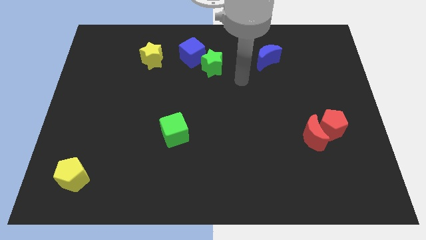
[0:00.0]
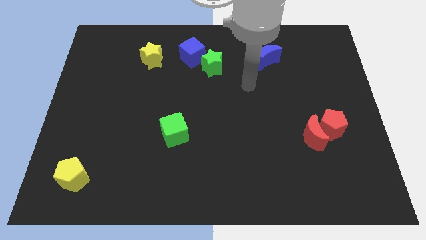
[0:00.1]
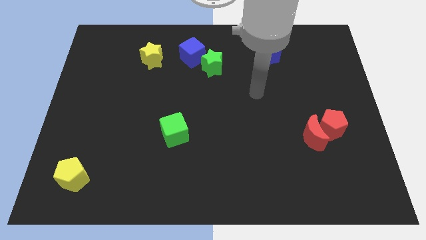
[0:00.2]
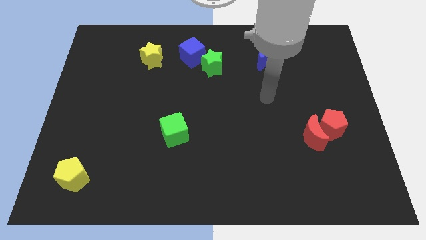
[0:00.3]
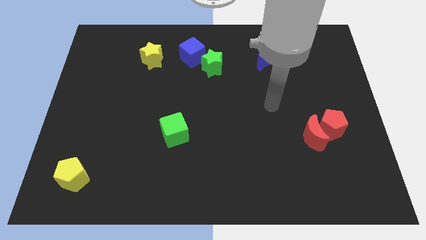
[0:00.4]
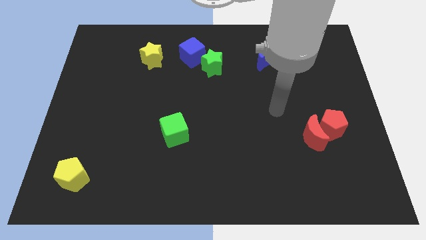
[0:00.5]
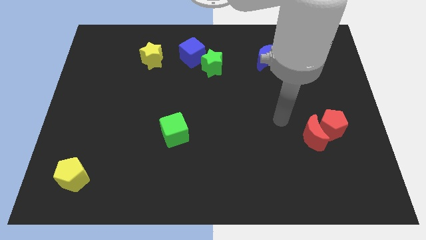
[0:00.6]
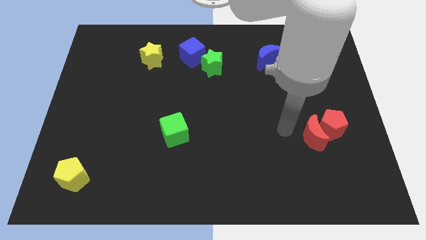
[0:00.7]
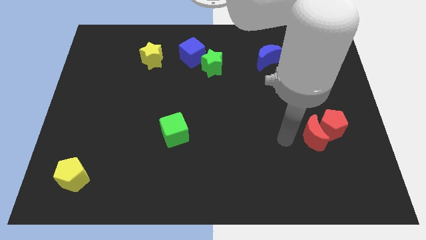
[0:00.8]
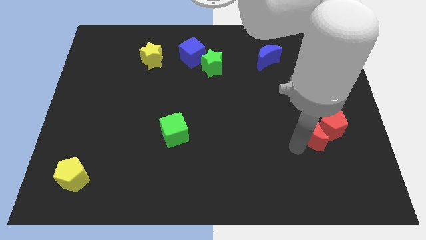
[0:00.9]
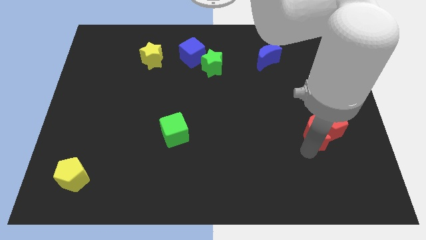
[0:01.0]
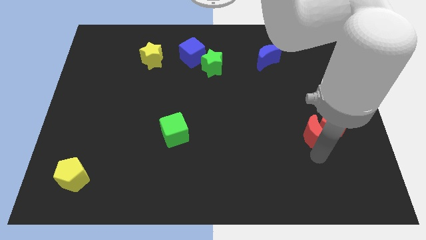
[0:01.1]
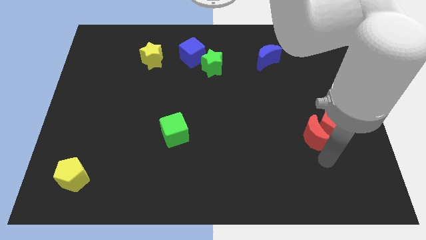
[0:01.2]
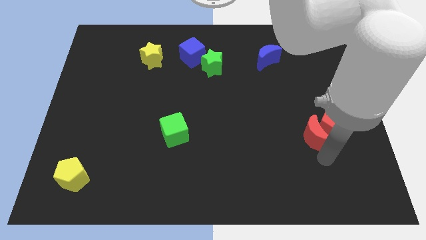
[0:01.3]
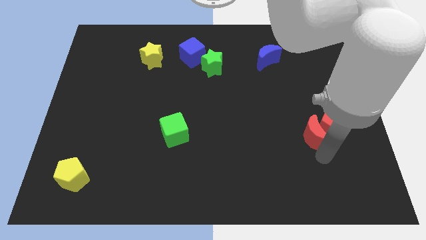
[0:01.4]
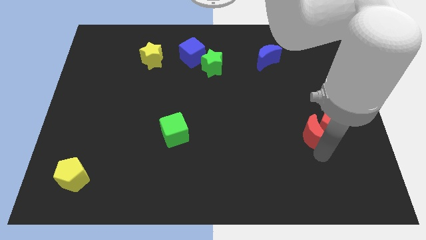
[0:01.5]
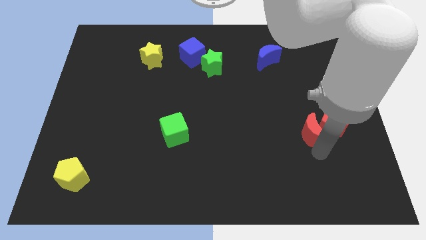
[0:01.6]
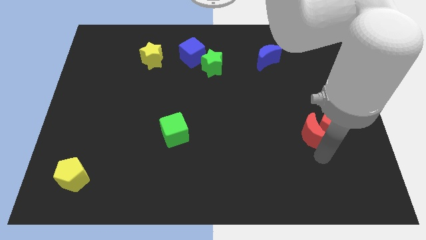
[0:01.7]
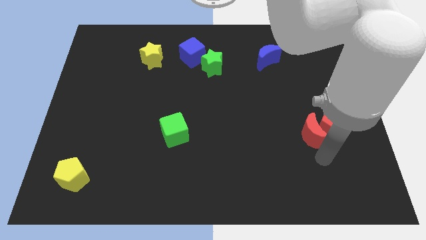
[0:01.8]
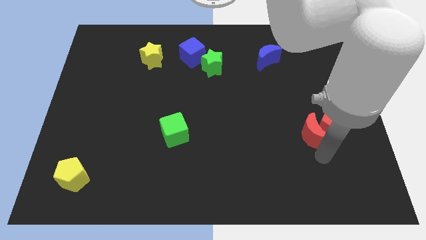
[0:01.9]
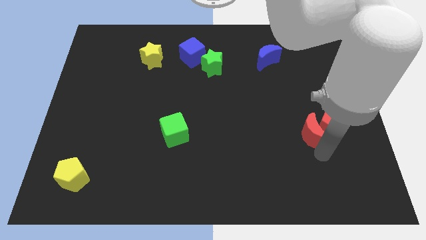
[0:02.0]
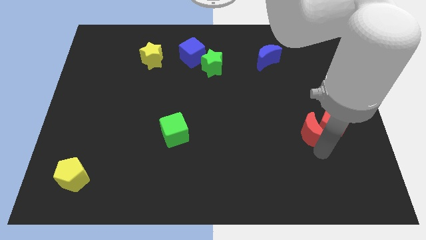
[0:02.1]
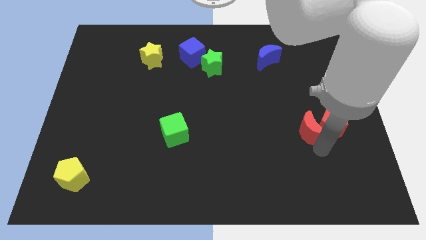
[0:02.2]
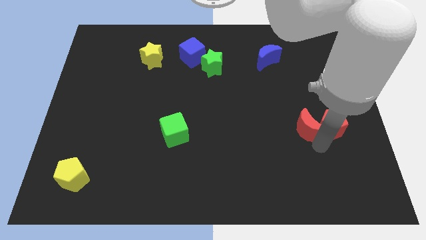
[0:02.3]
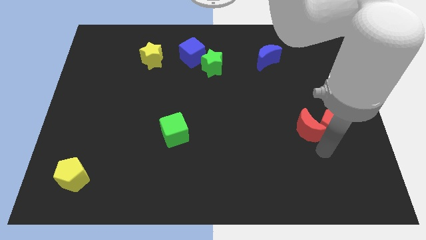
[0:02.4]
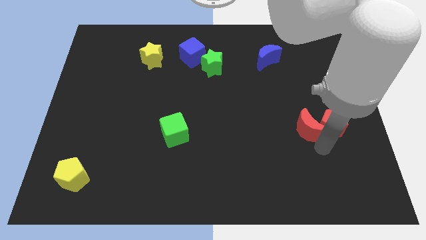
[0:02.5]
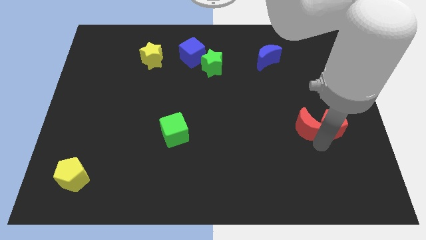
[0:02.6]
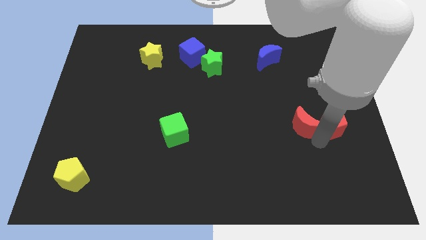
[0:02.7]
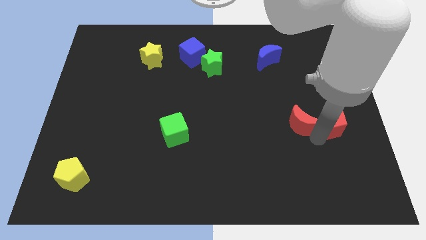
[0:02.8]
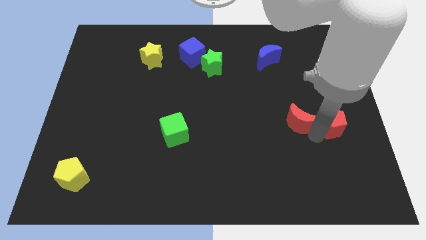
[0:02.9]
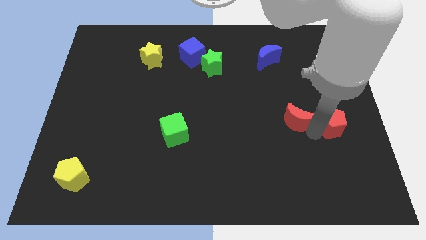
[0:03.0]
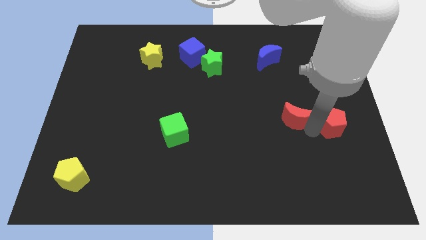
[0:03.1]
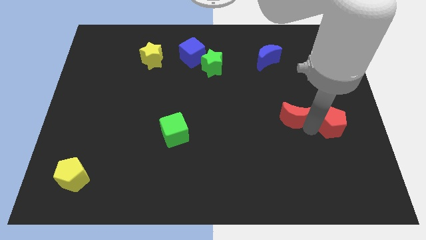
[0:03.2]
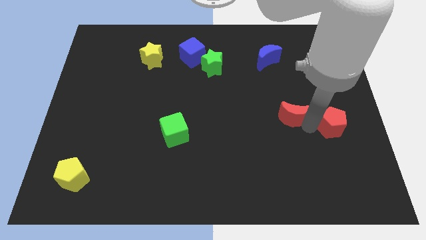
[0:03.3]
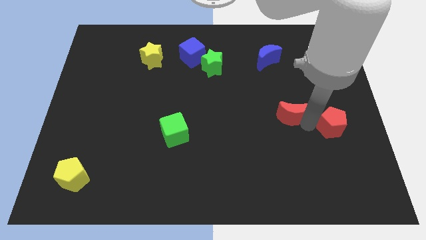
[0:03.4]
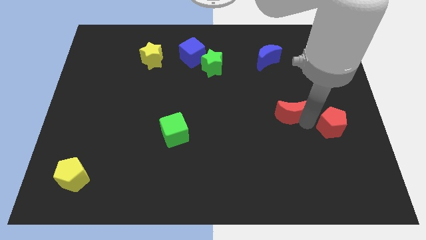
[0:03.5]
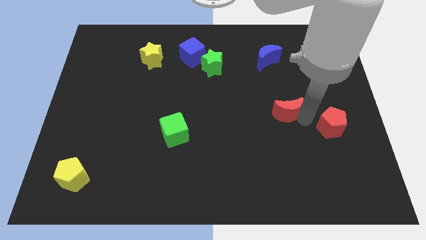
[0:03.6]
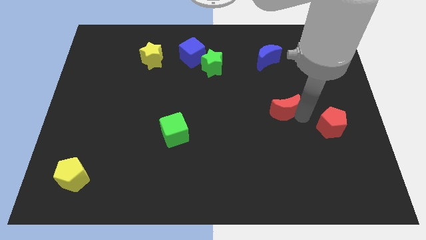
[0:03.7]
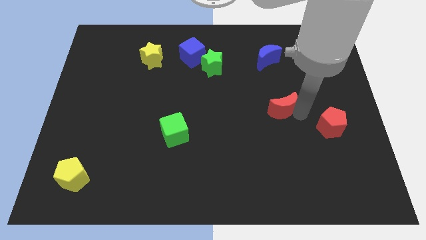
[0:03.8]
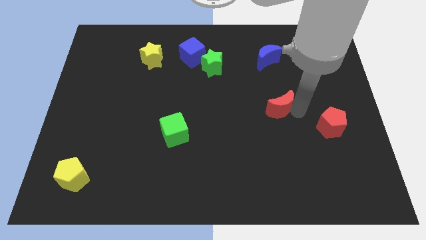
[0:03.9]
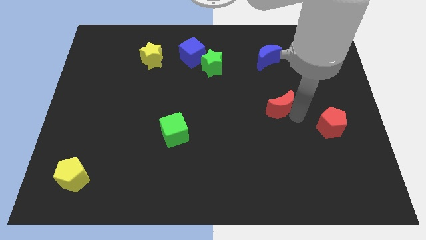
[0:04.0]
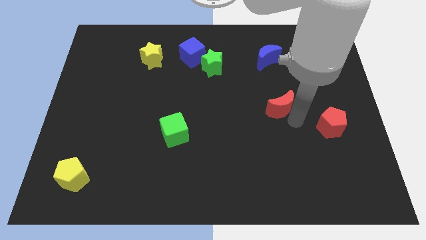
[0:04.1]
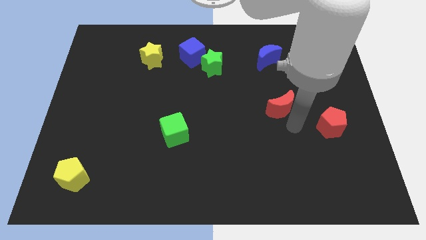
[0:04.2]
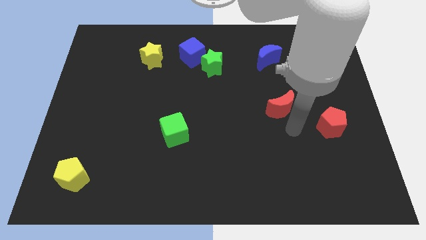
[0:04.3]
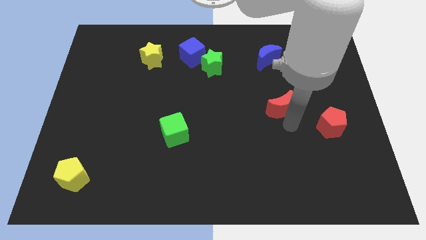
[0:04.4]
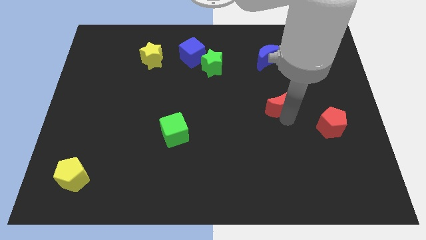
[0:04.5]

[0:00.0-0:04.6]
slide the red moon to the bottom side of the blue moon

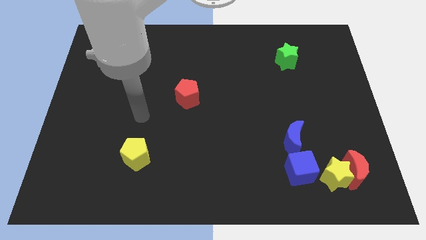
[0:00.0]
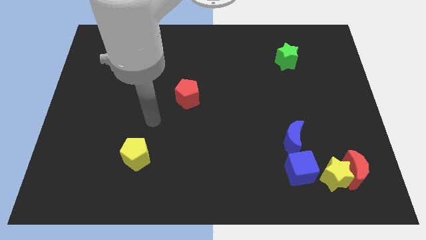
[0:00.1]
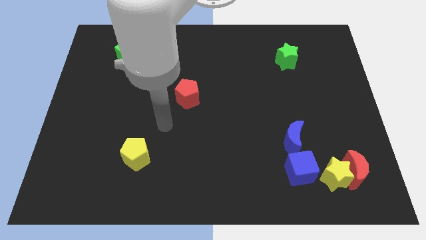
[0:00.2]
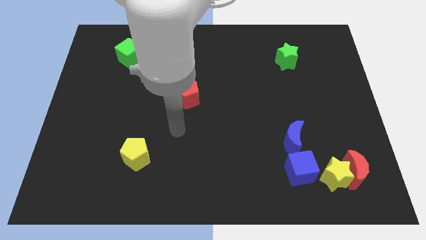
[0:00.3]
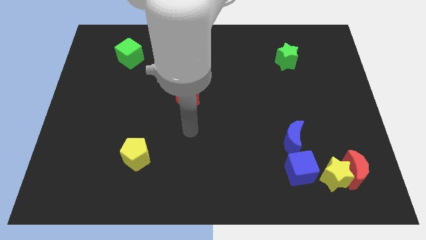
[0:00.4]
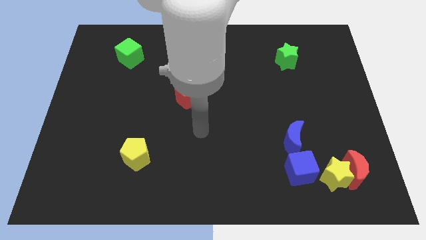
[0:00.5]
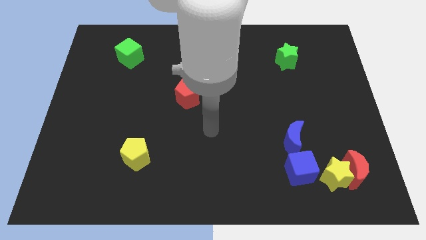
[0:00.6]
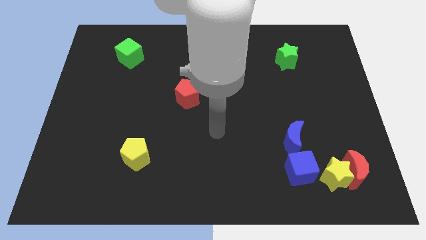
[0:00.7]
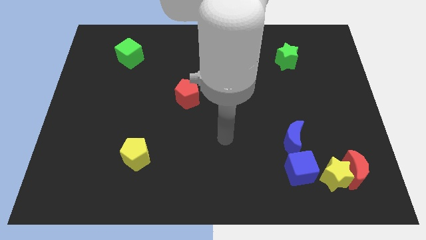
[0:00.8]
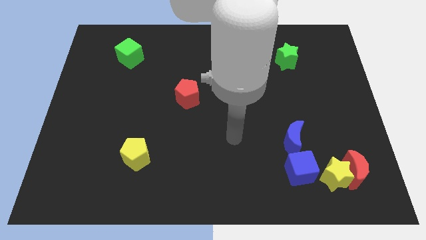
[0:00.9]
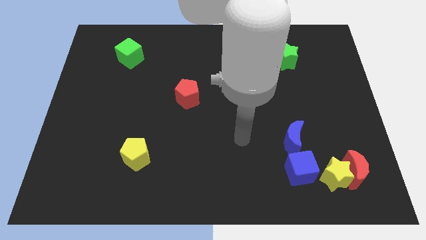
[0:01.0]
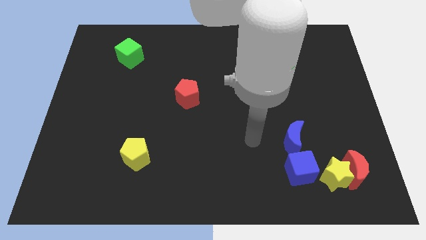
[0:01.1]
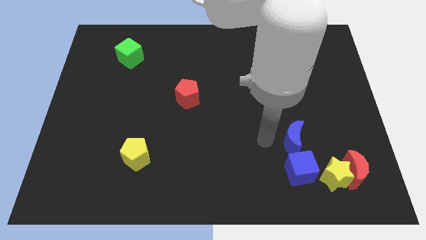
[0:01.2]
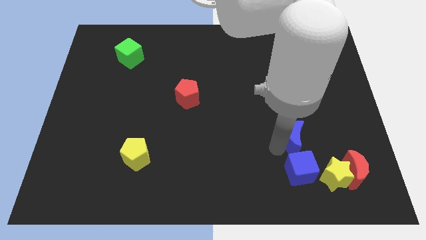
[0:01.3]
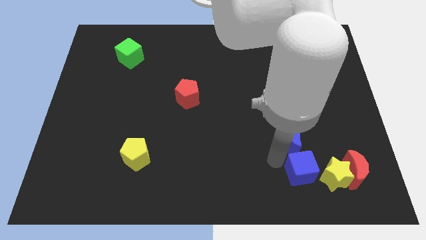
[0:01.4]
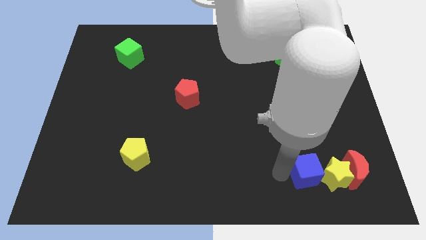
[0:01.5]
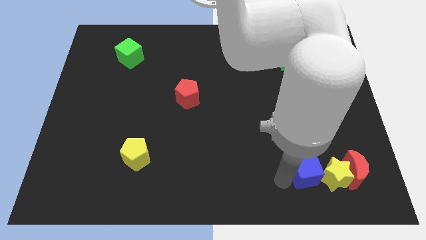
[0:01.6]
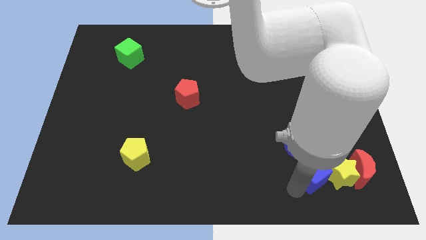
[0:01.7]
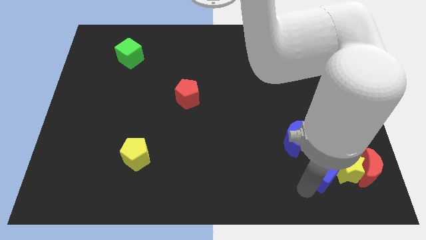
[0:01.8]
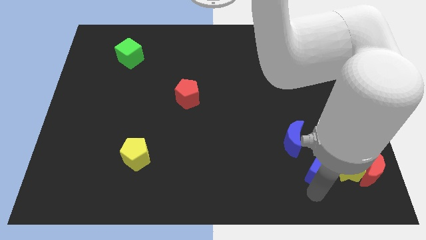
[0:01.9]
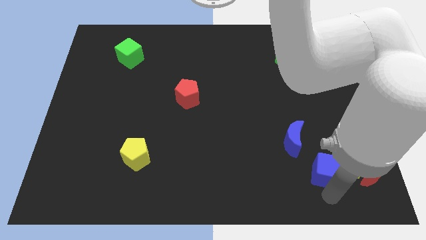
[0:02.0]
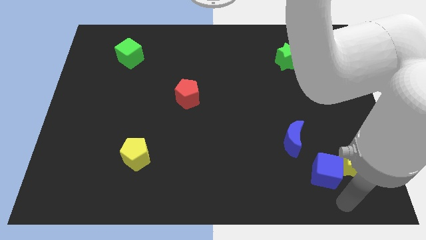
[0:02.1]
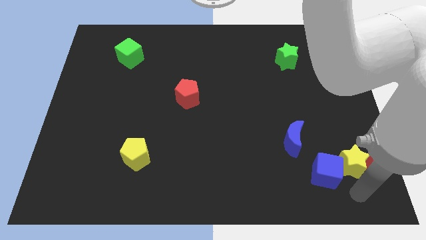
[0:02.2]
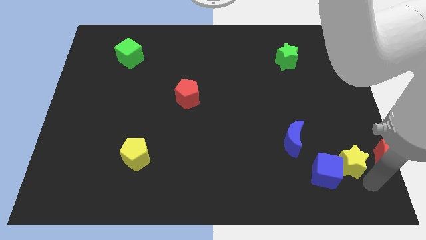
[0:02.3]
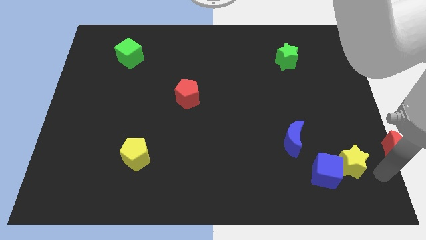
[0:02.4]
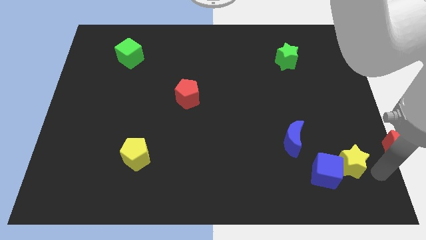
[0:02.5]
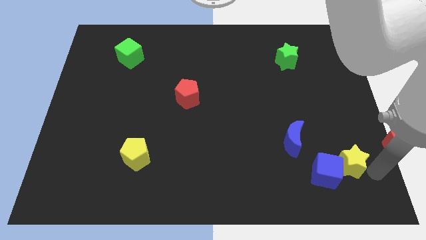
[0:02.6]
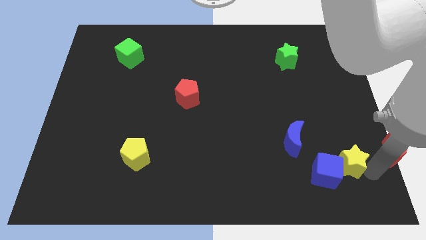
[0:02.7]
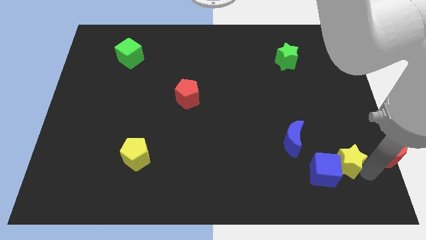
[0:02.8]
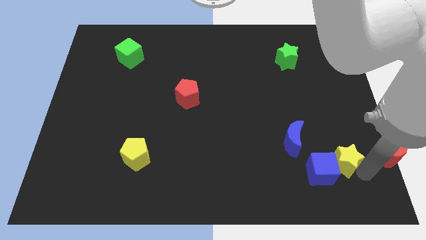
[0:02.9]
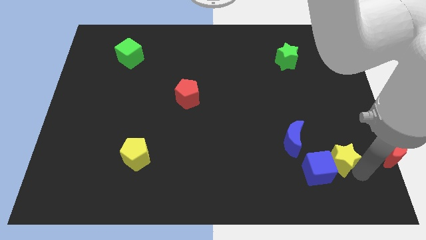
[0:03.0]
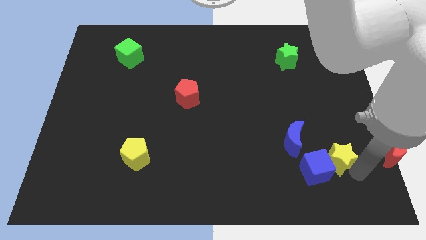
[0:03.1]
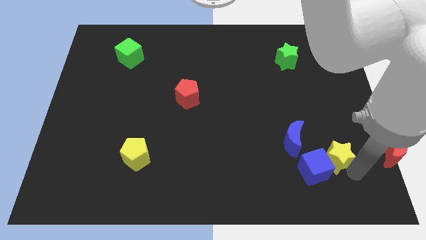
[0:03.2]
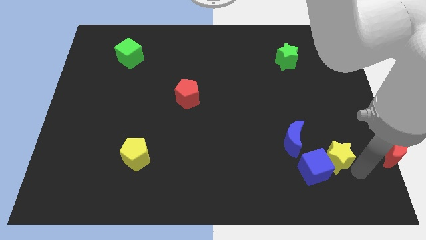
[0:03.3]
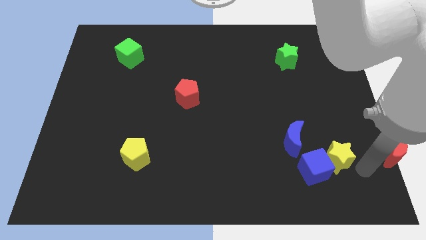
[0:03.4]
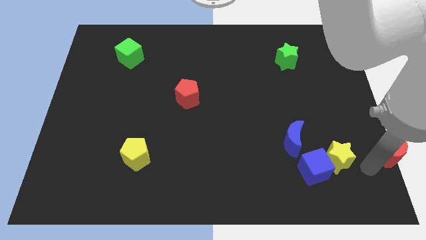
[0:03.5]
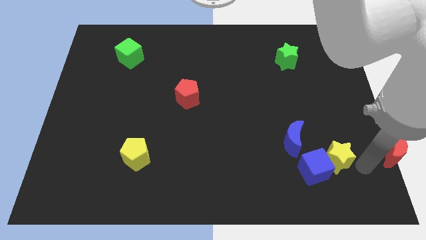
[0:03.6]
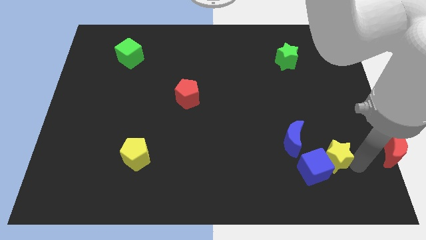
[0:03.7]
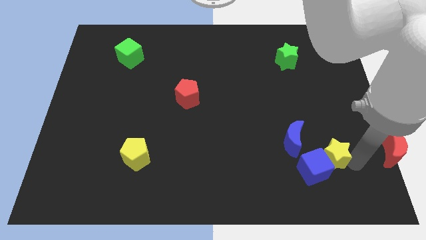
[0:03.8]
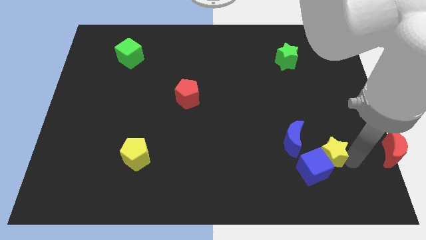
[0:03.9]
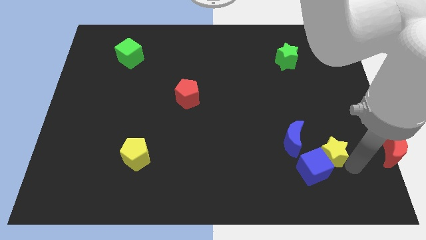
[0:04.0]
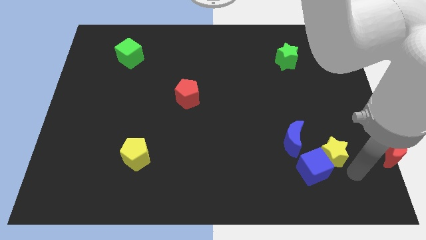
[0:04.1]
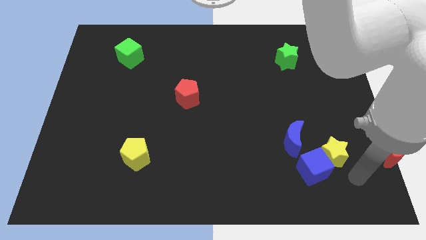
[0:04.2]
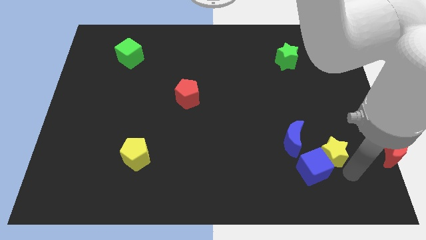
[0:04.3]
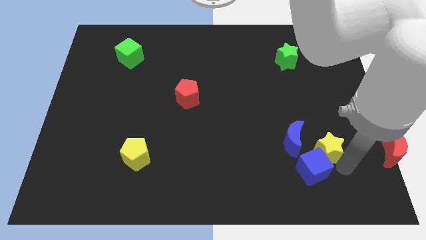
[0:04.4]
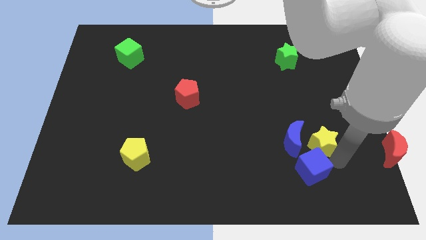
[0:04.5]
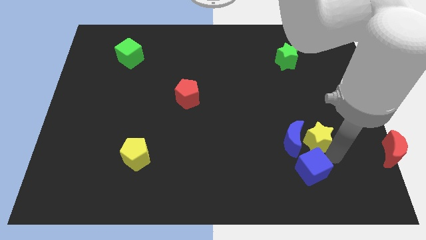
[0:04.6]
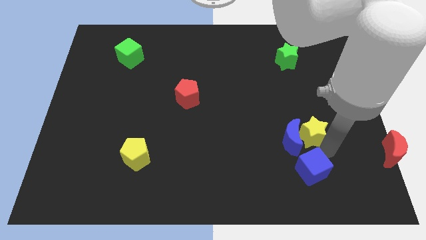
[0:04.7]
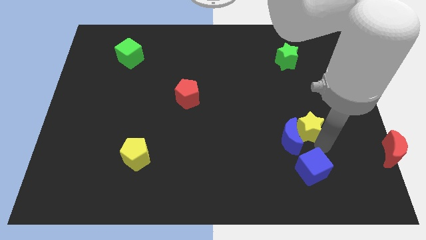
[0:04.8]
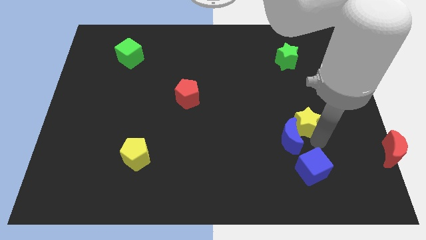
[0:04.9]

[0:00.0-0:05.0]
push the yellow star to the top side of the blue moon
